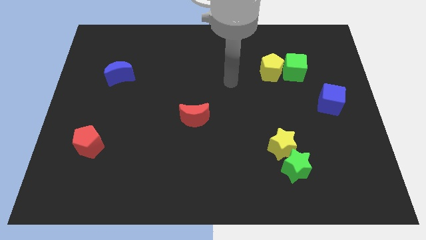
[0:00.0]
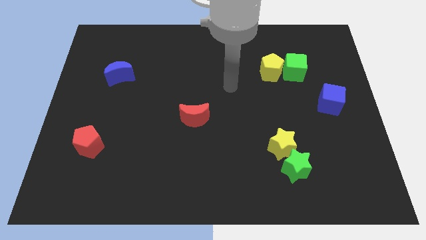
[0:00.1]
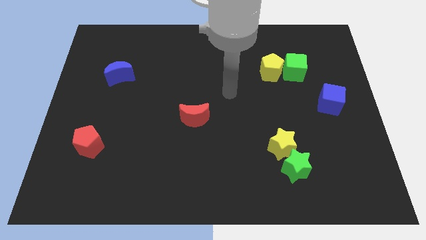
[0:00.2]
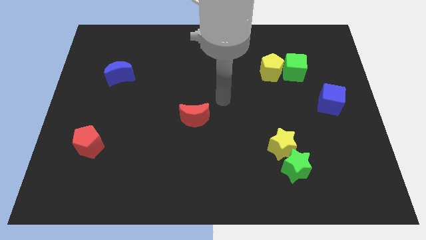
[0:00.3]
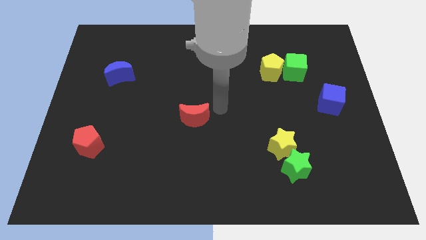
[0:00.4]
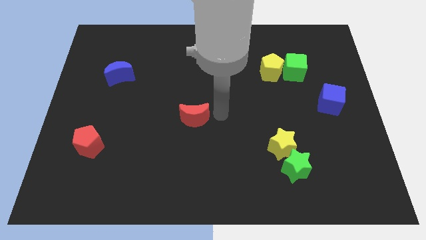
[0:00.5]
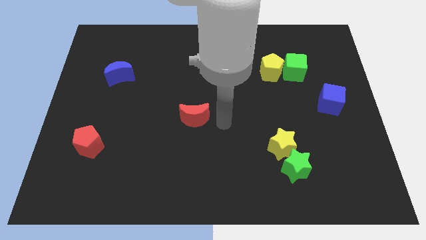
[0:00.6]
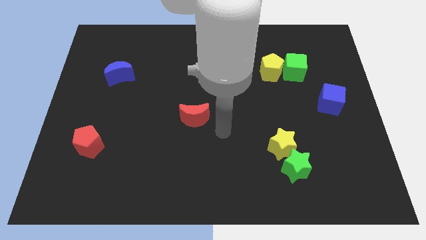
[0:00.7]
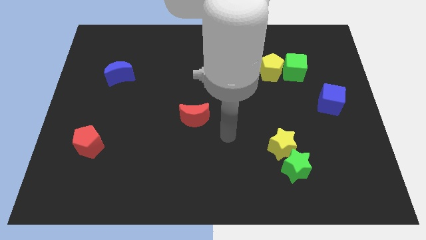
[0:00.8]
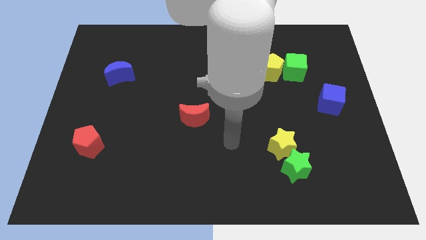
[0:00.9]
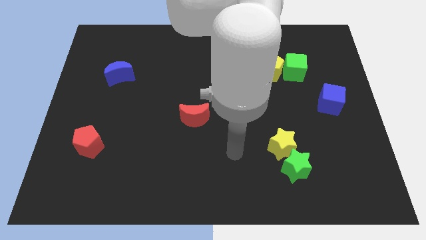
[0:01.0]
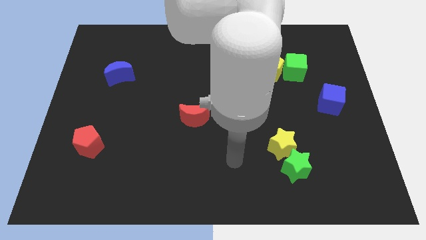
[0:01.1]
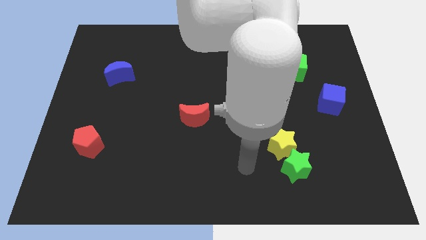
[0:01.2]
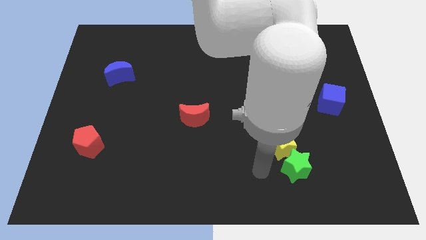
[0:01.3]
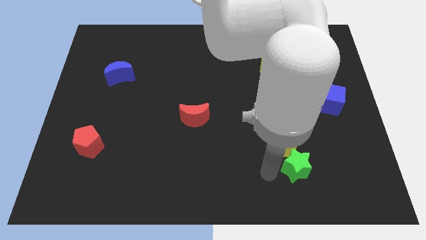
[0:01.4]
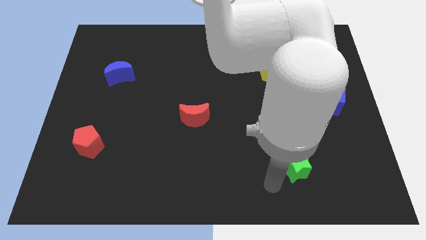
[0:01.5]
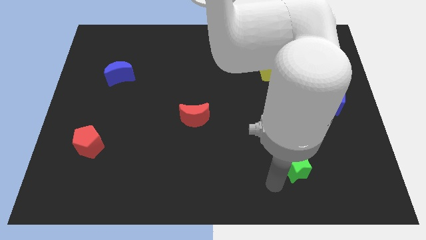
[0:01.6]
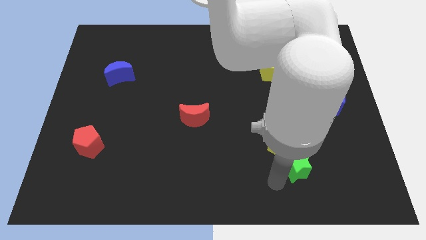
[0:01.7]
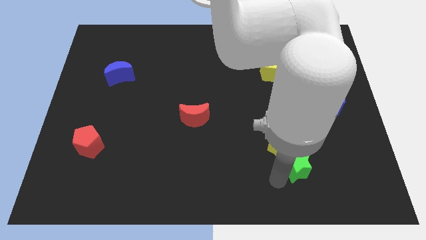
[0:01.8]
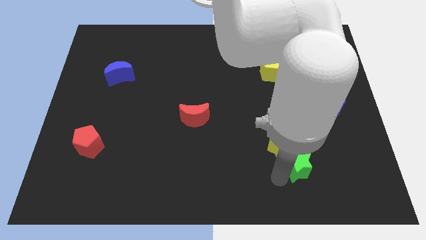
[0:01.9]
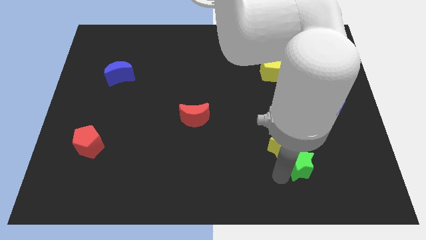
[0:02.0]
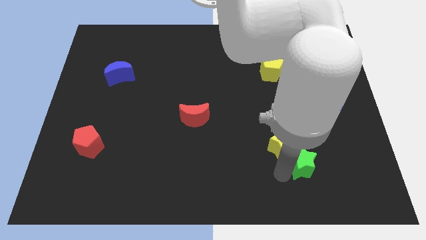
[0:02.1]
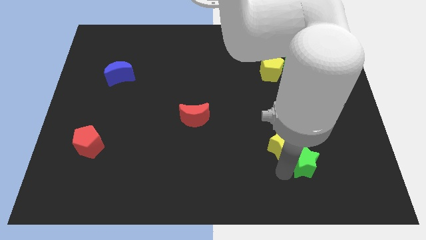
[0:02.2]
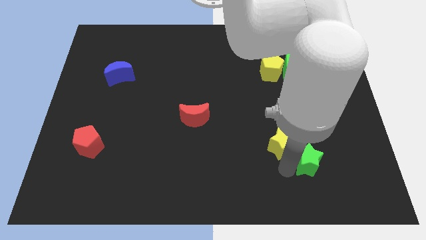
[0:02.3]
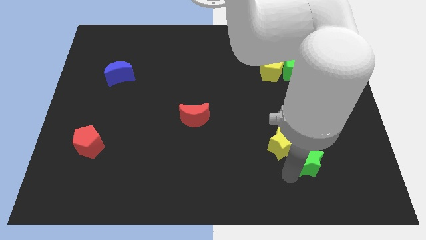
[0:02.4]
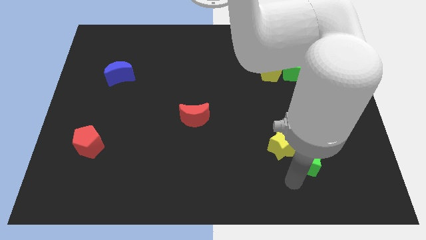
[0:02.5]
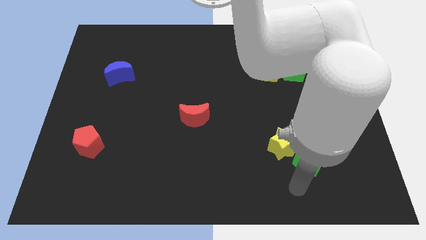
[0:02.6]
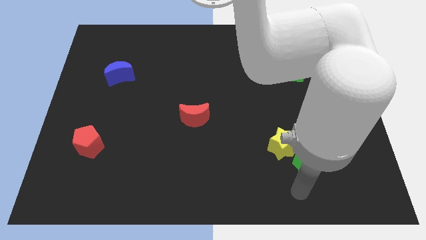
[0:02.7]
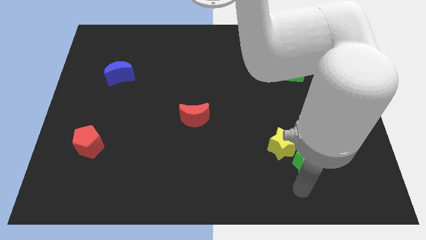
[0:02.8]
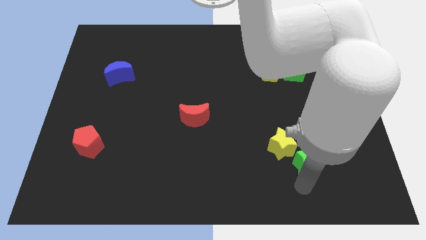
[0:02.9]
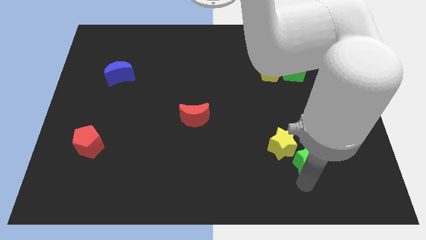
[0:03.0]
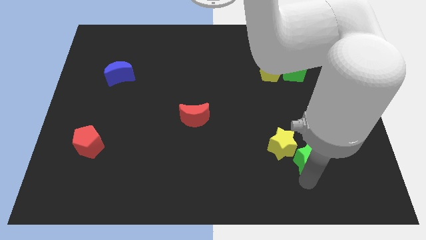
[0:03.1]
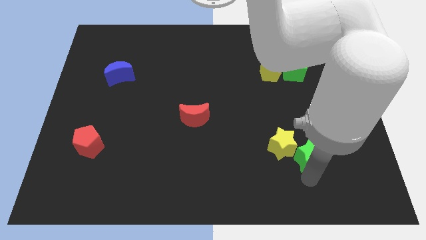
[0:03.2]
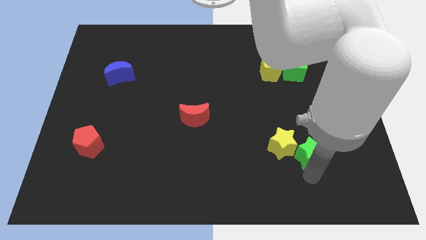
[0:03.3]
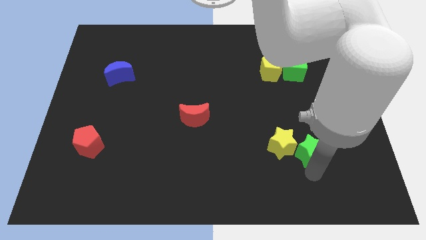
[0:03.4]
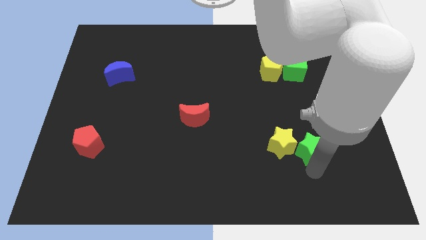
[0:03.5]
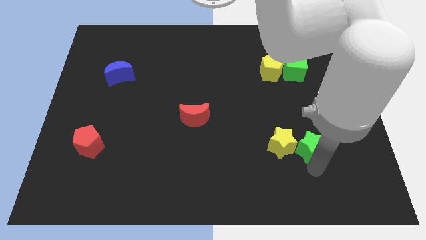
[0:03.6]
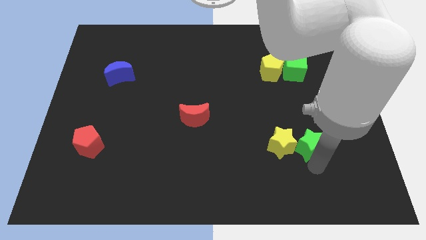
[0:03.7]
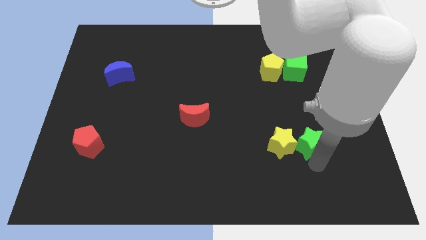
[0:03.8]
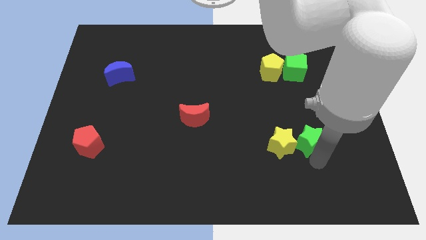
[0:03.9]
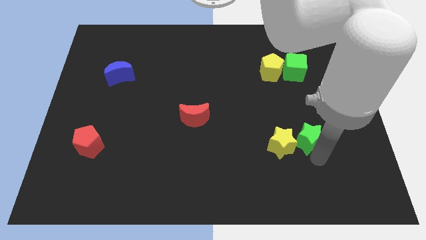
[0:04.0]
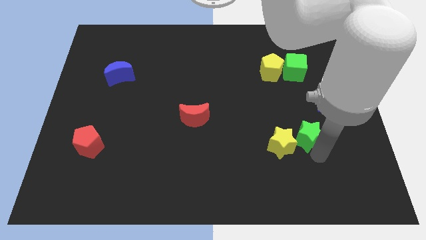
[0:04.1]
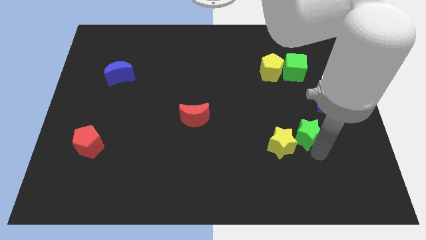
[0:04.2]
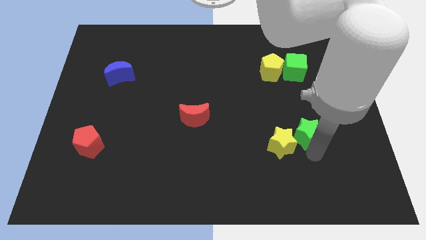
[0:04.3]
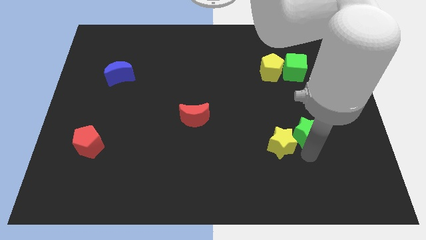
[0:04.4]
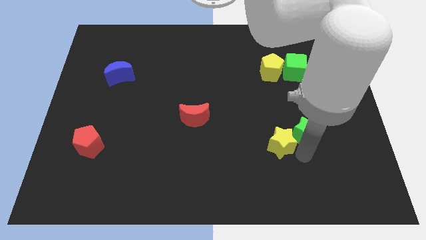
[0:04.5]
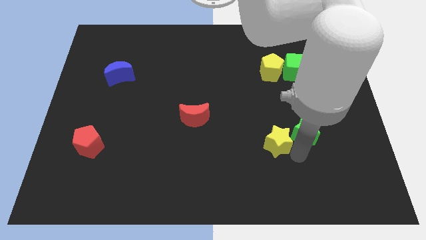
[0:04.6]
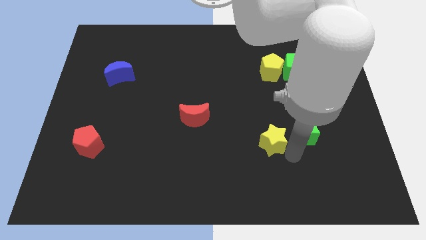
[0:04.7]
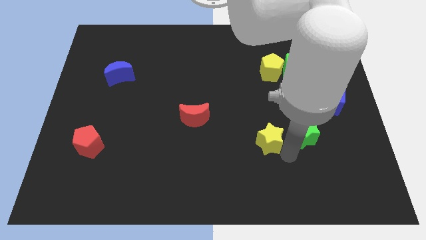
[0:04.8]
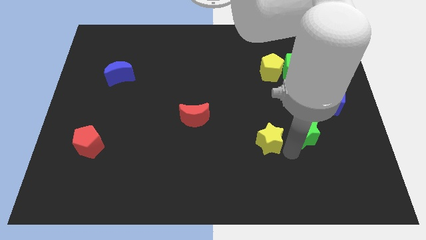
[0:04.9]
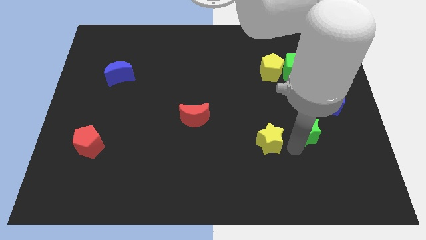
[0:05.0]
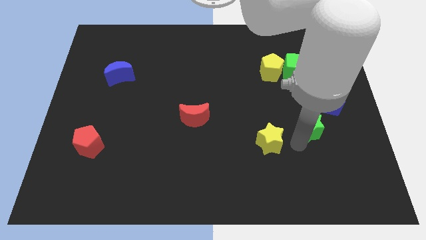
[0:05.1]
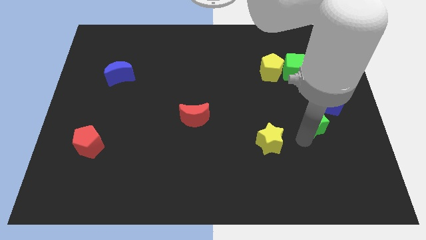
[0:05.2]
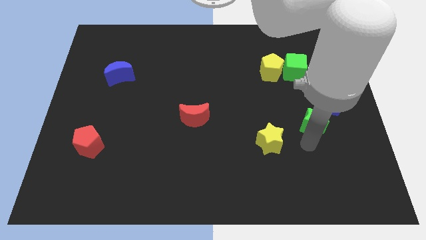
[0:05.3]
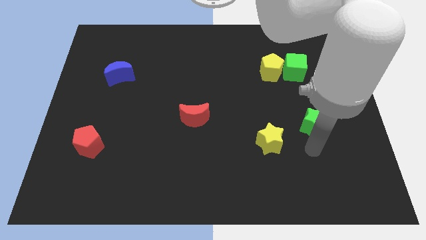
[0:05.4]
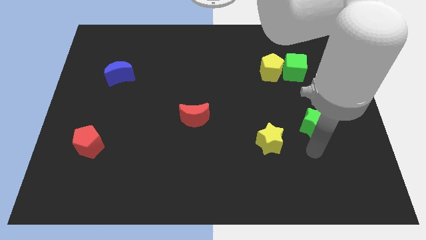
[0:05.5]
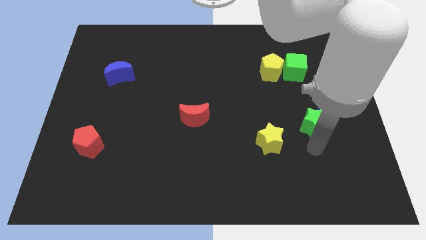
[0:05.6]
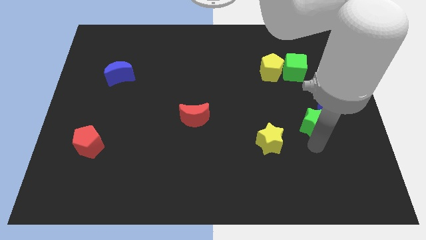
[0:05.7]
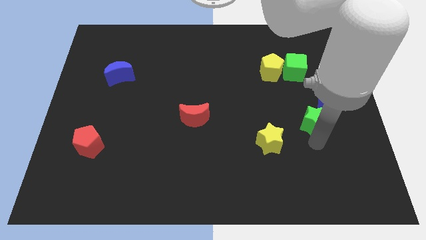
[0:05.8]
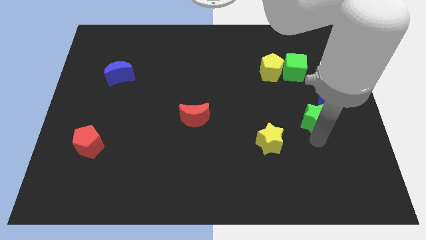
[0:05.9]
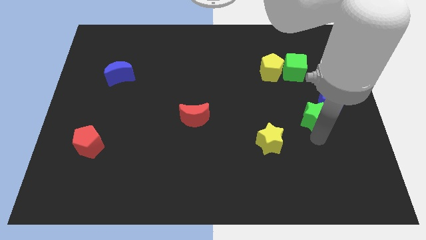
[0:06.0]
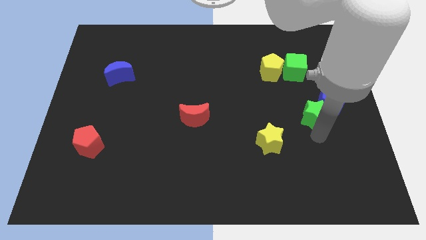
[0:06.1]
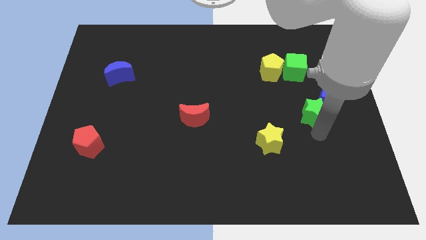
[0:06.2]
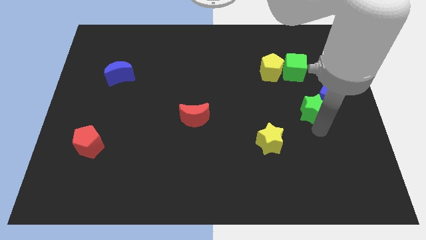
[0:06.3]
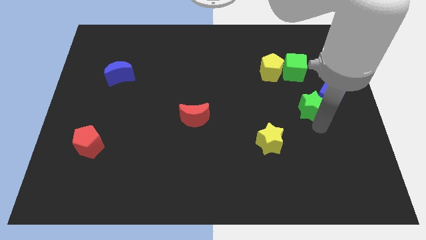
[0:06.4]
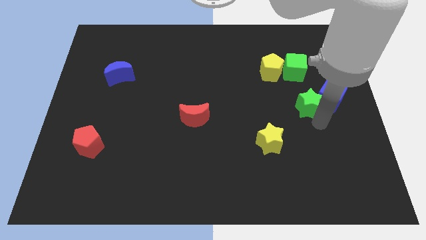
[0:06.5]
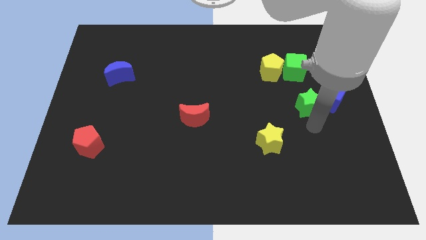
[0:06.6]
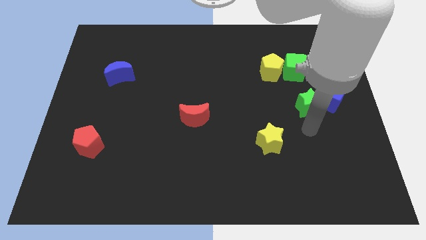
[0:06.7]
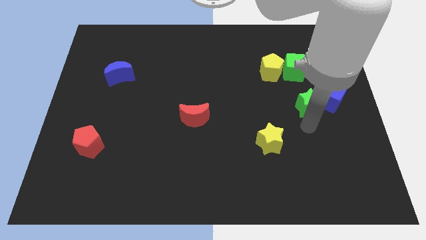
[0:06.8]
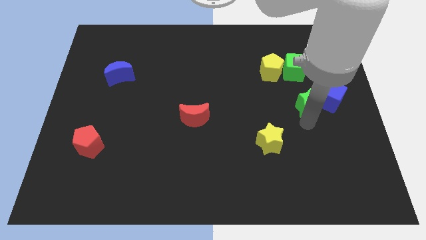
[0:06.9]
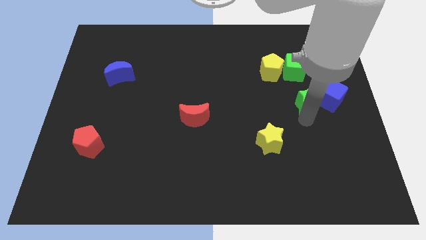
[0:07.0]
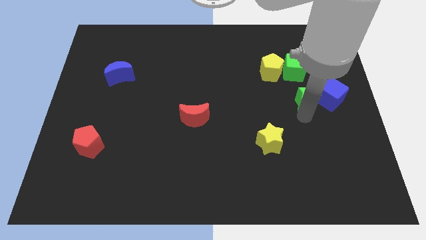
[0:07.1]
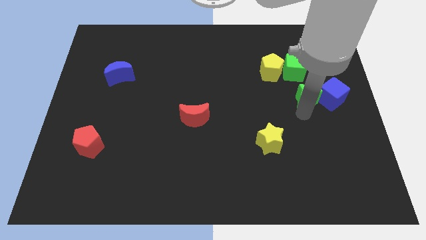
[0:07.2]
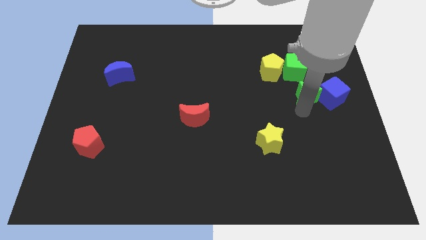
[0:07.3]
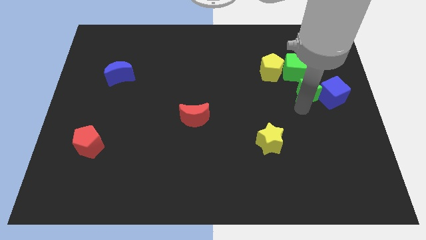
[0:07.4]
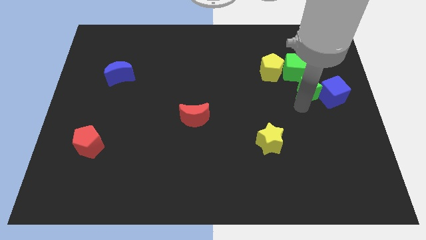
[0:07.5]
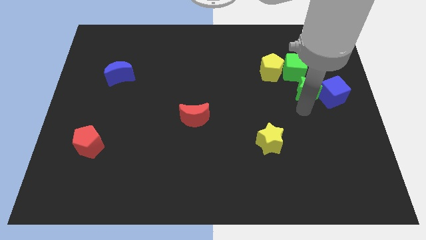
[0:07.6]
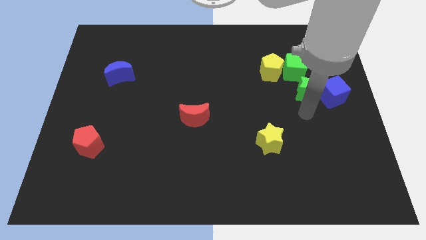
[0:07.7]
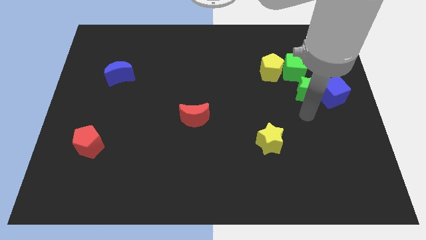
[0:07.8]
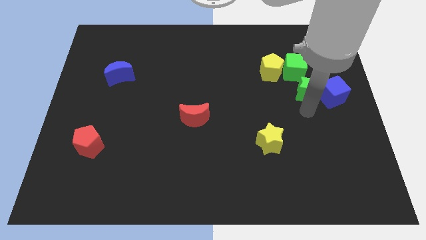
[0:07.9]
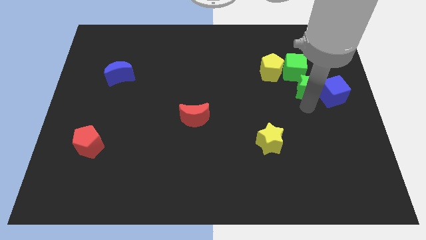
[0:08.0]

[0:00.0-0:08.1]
move the green star up
